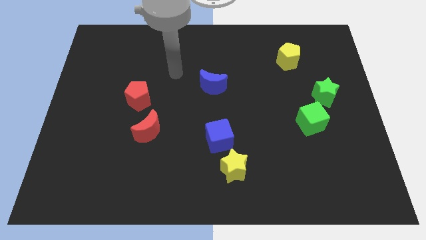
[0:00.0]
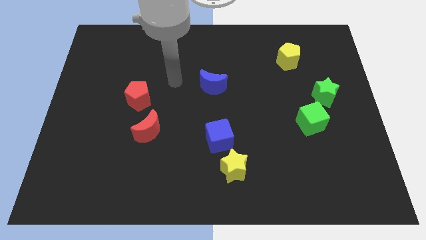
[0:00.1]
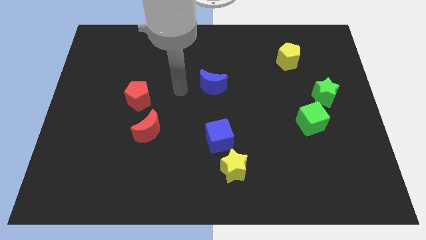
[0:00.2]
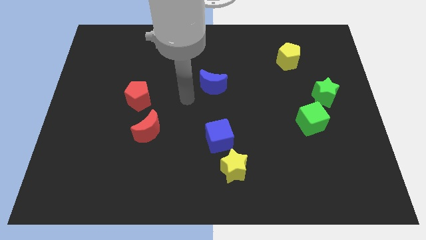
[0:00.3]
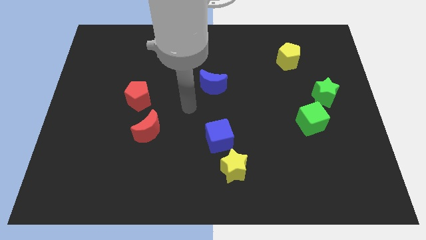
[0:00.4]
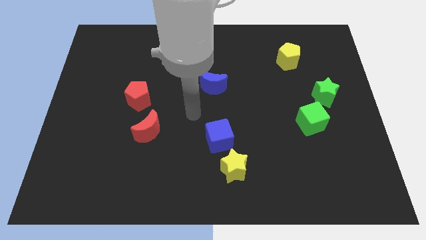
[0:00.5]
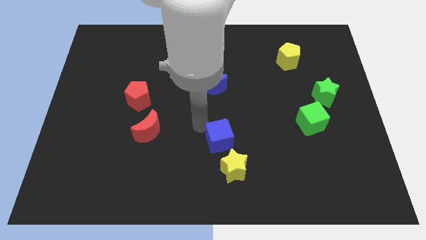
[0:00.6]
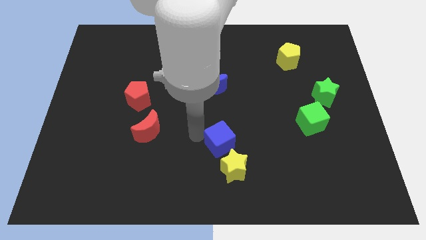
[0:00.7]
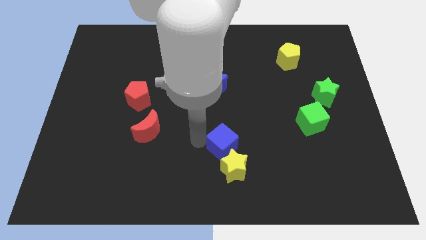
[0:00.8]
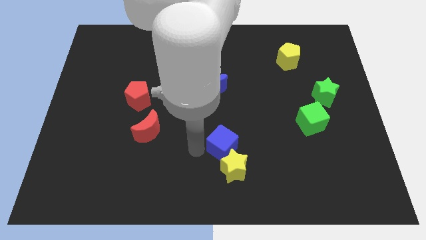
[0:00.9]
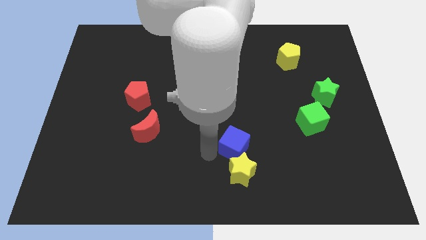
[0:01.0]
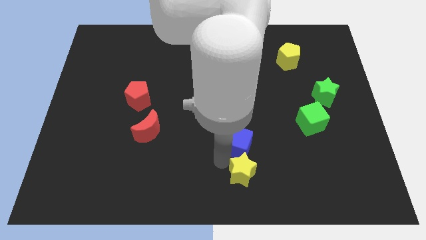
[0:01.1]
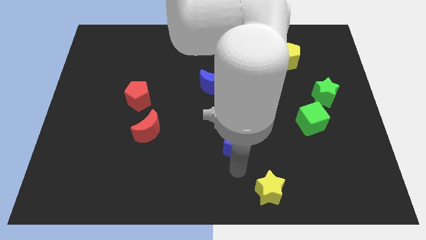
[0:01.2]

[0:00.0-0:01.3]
move the blue cube away from the yellow star

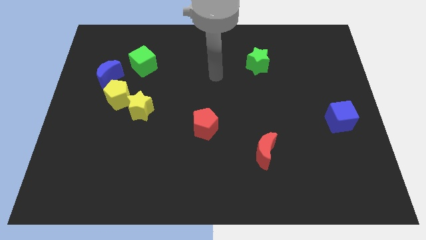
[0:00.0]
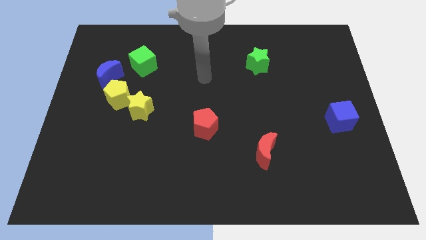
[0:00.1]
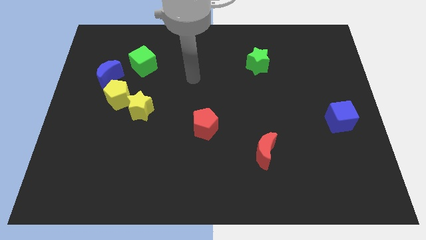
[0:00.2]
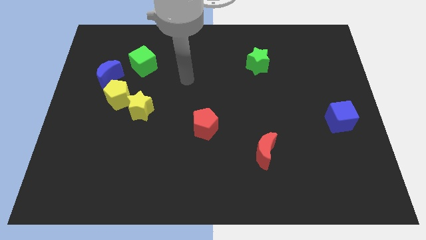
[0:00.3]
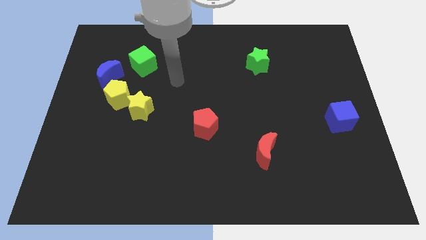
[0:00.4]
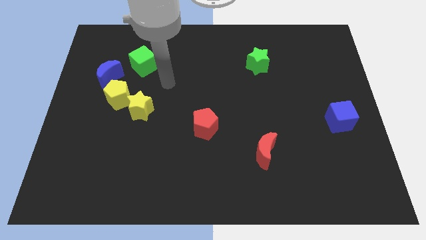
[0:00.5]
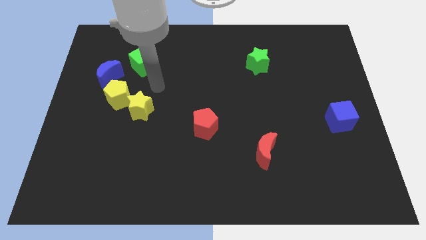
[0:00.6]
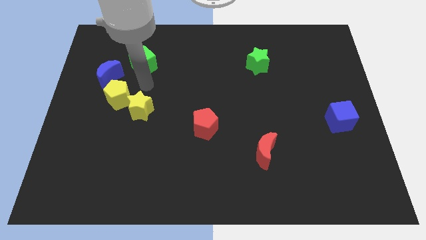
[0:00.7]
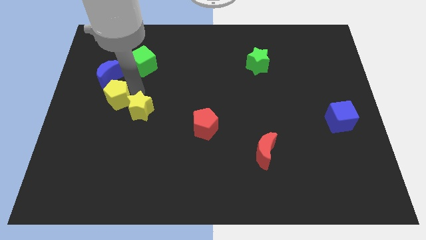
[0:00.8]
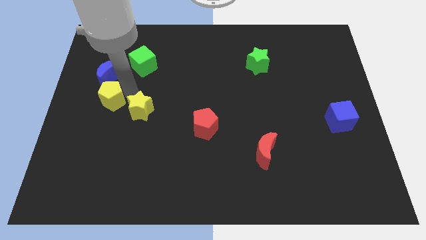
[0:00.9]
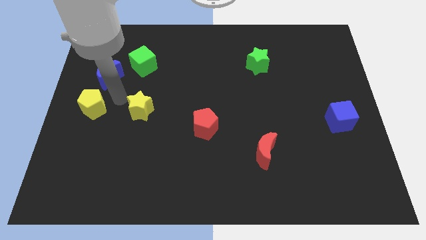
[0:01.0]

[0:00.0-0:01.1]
pull the yellow star apart from the yellow pentagon

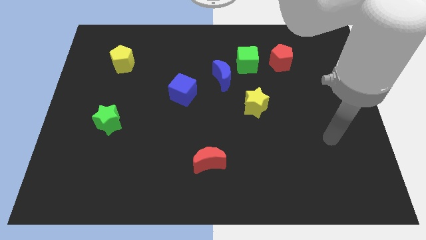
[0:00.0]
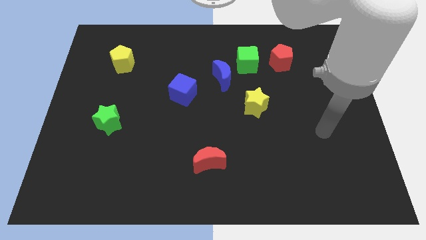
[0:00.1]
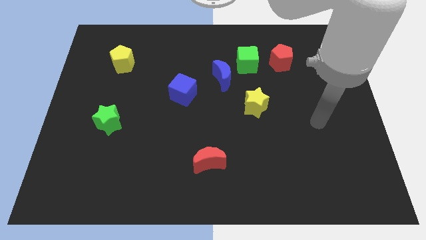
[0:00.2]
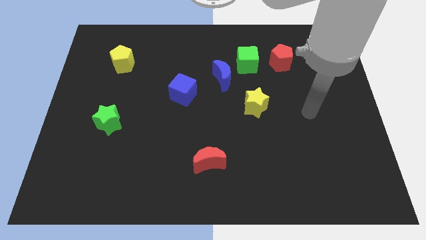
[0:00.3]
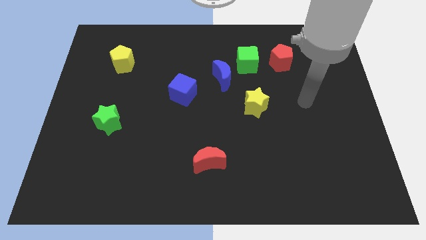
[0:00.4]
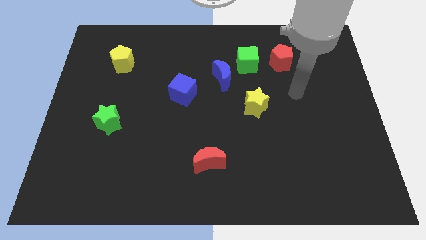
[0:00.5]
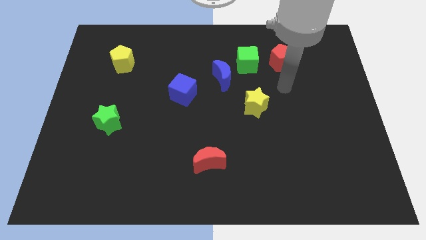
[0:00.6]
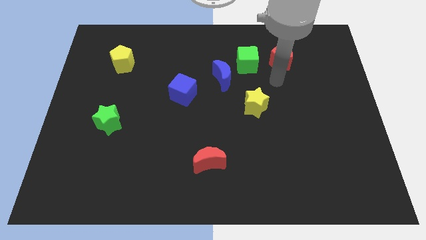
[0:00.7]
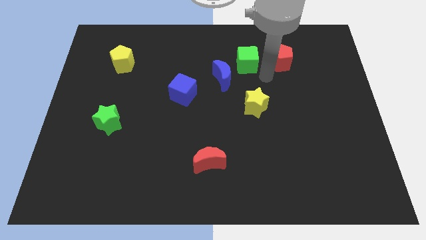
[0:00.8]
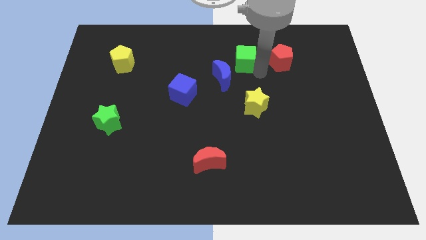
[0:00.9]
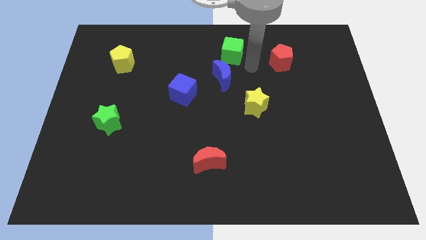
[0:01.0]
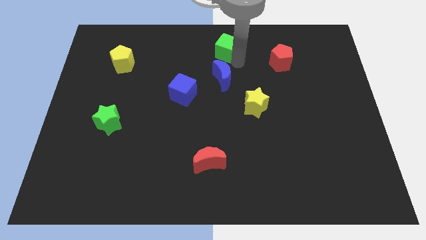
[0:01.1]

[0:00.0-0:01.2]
separate the blue moon from the green cube

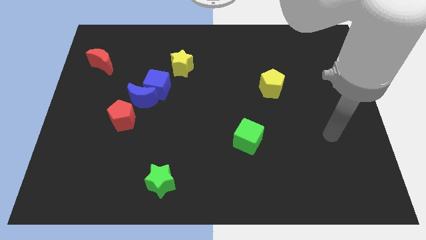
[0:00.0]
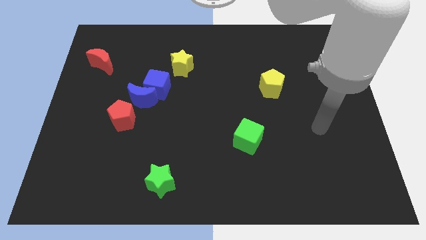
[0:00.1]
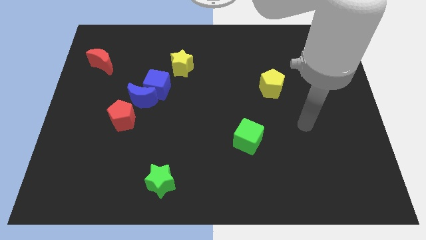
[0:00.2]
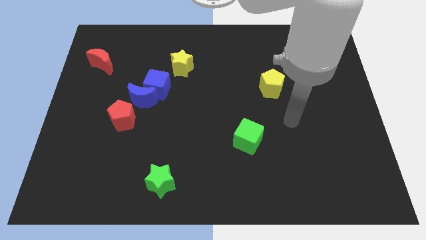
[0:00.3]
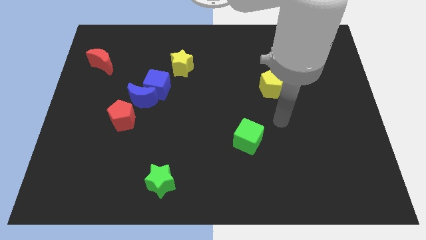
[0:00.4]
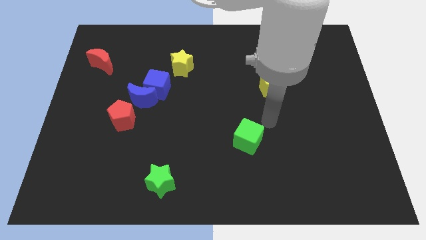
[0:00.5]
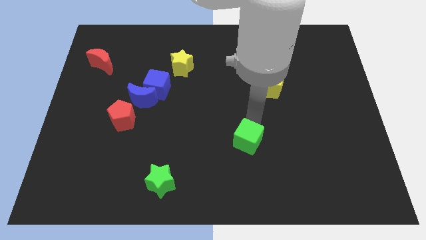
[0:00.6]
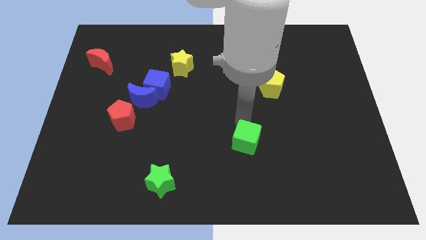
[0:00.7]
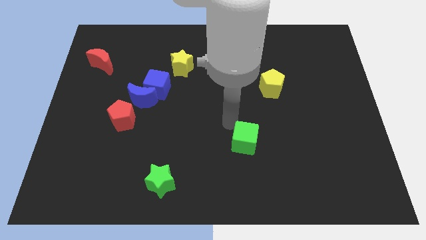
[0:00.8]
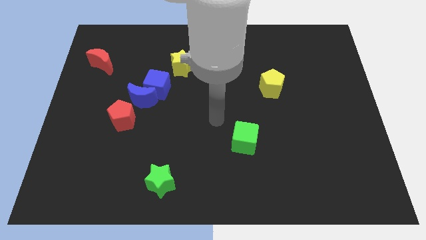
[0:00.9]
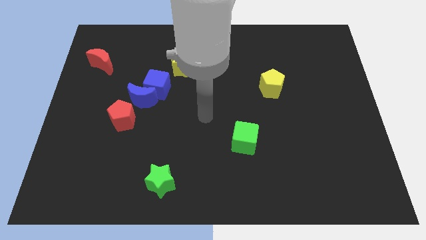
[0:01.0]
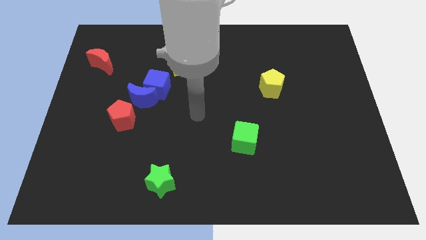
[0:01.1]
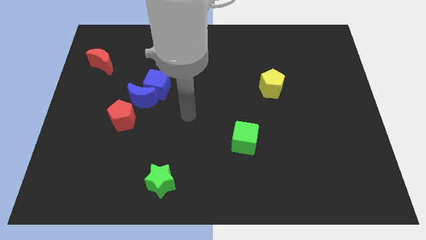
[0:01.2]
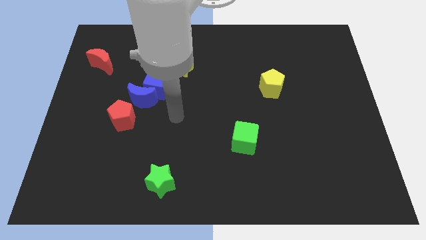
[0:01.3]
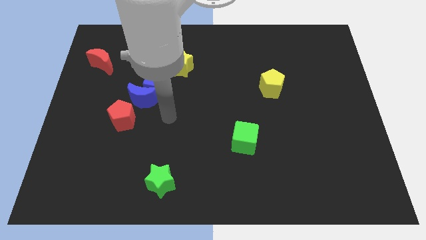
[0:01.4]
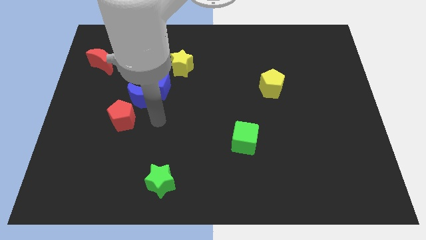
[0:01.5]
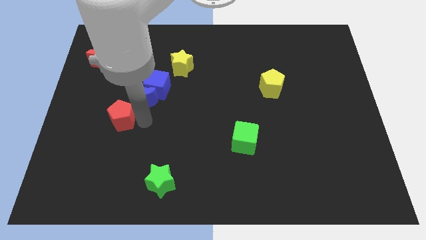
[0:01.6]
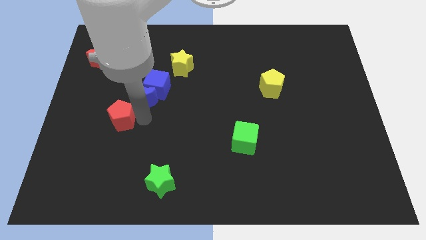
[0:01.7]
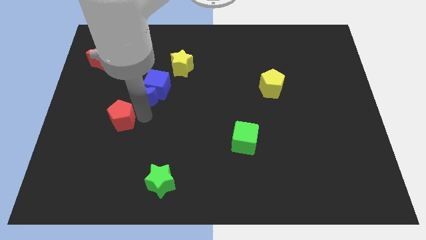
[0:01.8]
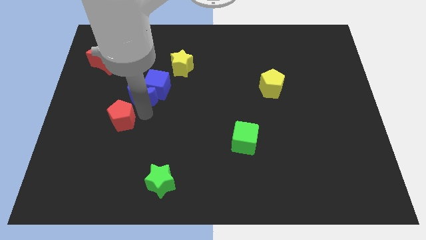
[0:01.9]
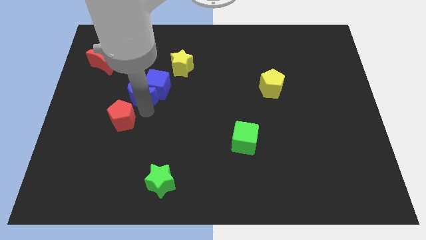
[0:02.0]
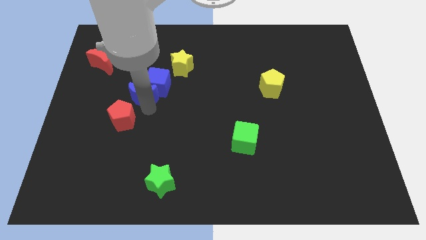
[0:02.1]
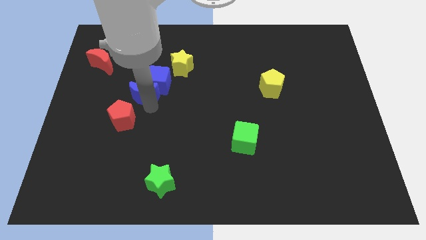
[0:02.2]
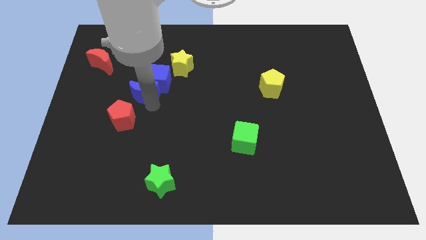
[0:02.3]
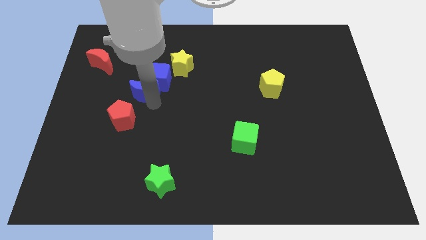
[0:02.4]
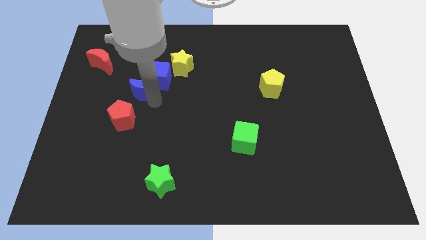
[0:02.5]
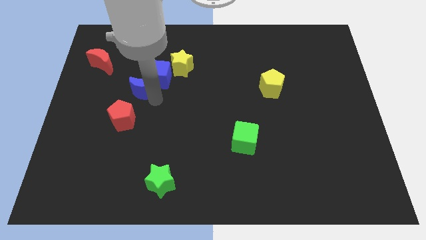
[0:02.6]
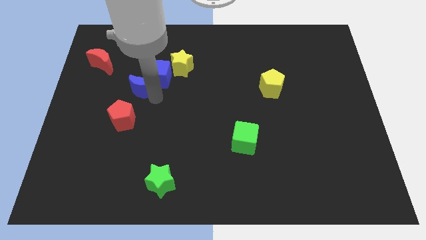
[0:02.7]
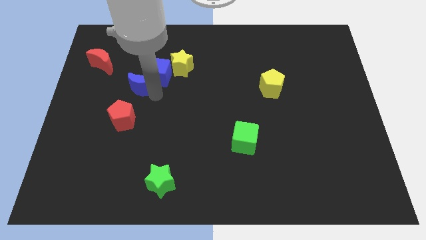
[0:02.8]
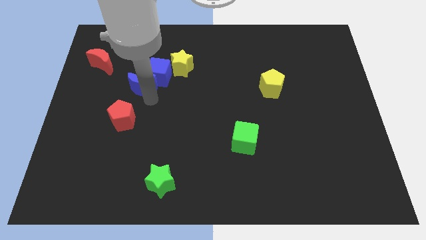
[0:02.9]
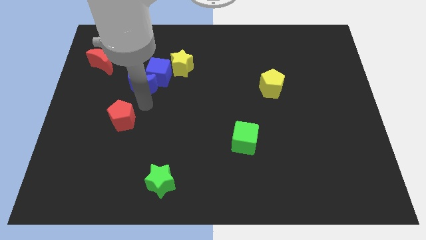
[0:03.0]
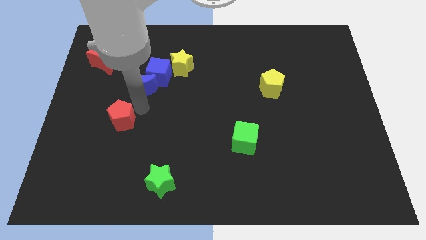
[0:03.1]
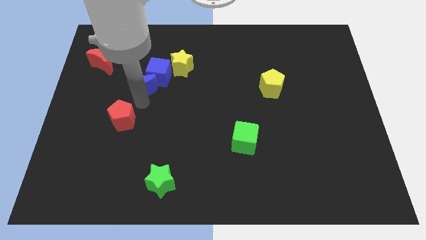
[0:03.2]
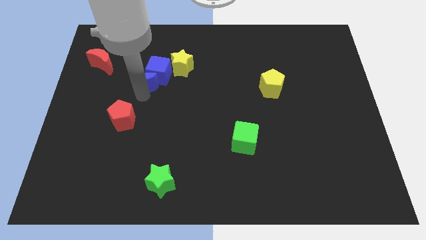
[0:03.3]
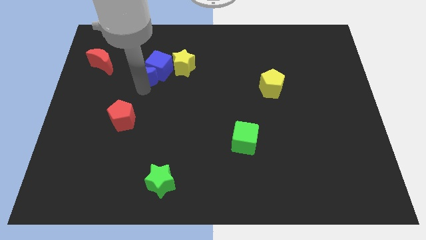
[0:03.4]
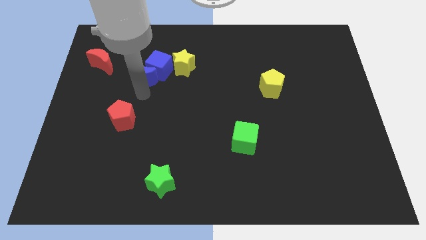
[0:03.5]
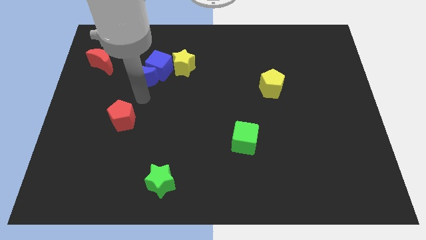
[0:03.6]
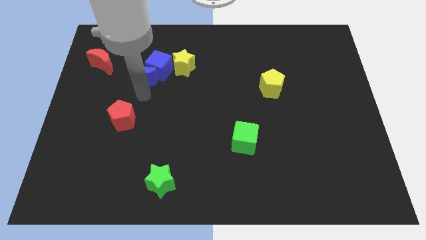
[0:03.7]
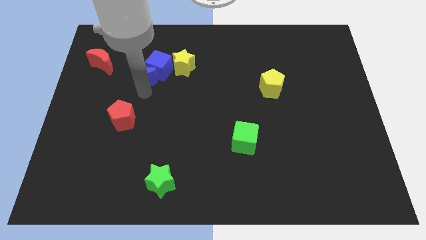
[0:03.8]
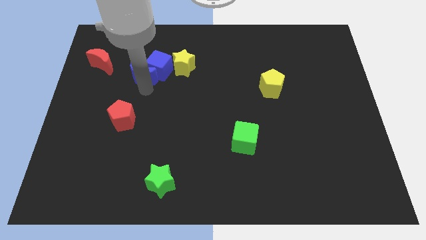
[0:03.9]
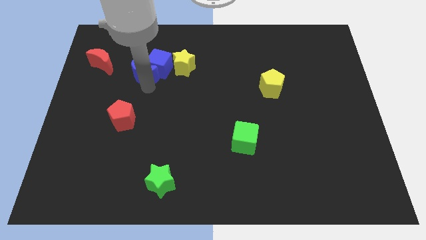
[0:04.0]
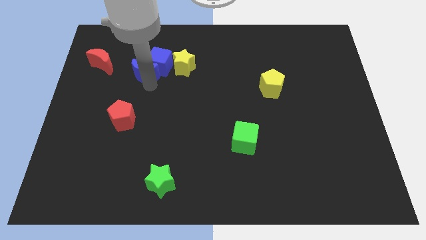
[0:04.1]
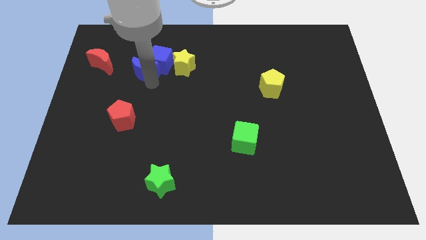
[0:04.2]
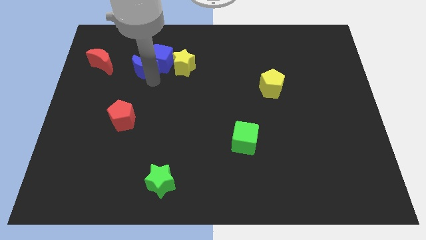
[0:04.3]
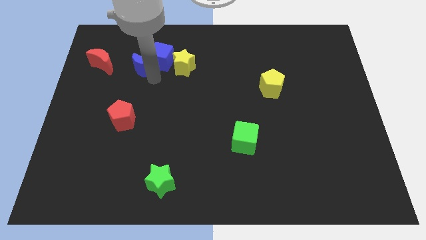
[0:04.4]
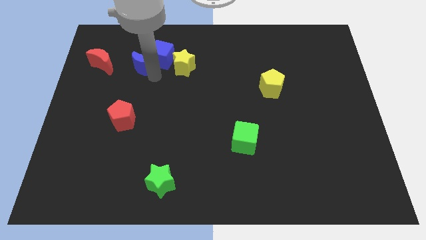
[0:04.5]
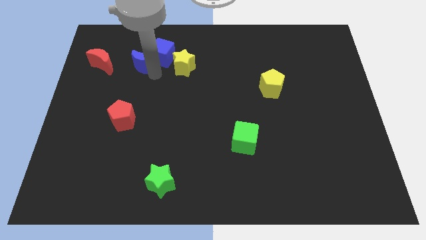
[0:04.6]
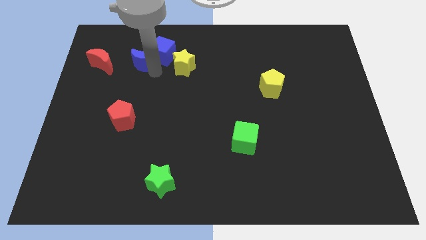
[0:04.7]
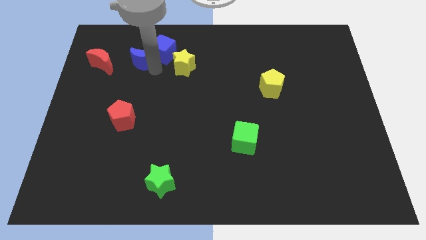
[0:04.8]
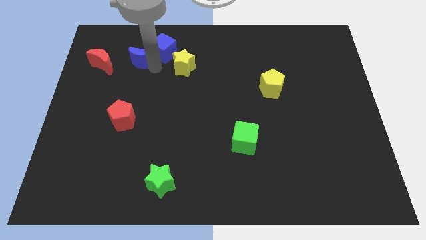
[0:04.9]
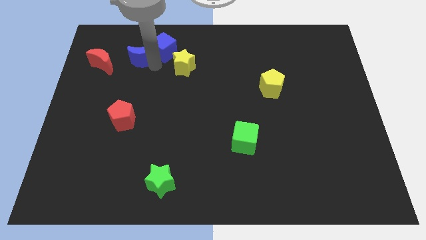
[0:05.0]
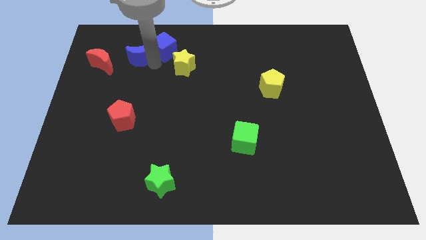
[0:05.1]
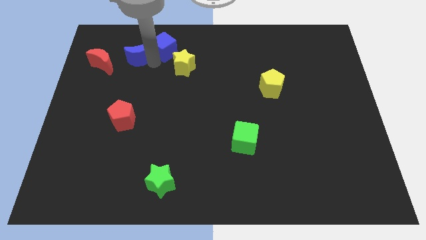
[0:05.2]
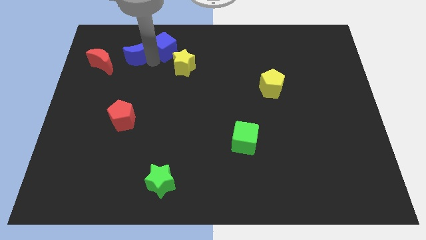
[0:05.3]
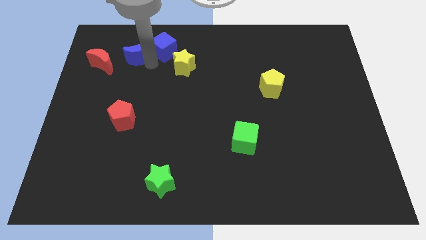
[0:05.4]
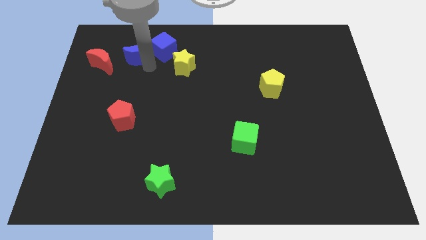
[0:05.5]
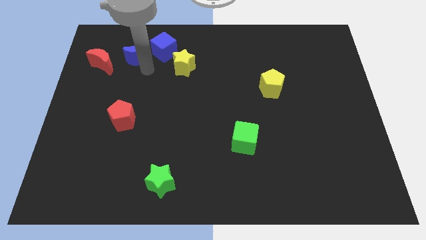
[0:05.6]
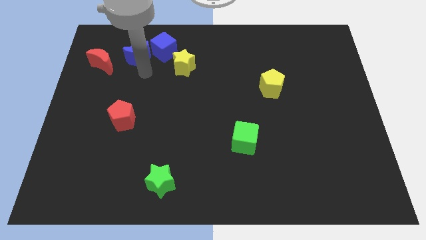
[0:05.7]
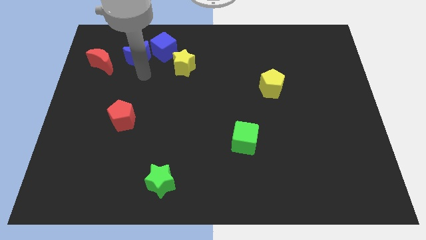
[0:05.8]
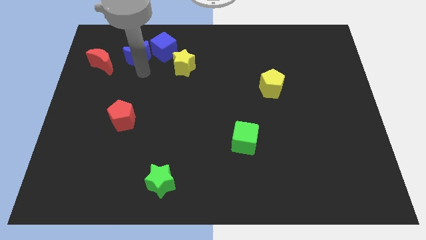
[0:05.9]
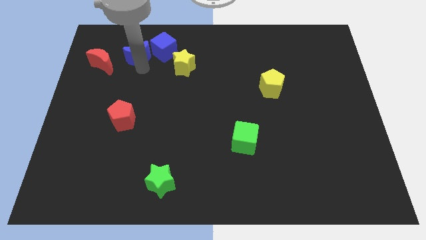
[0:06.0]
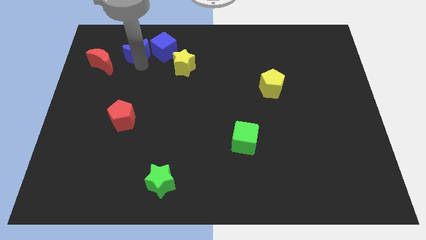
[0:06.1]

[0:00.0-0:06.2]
move the blue moon away from the blue cube and red pentagon
